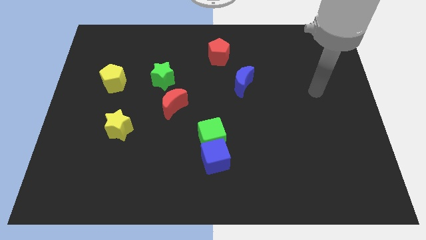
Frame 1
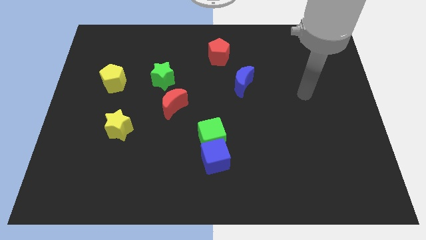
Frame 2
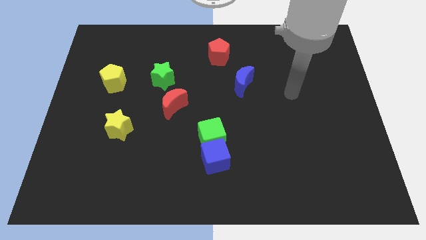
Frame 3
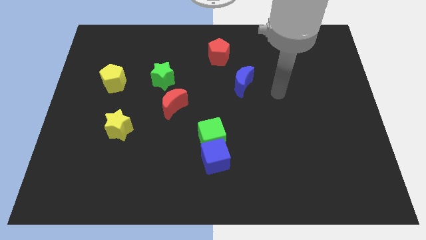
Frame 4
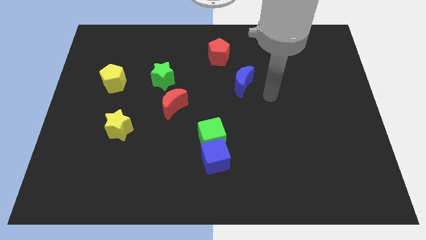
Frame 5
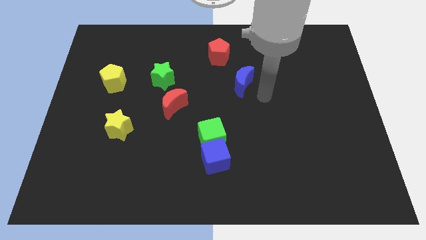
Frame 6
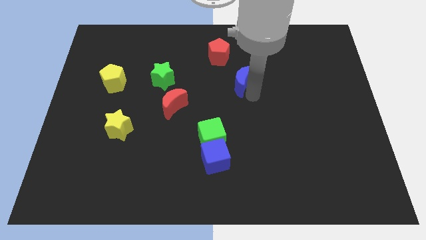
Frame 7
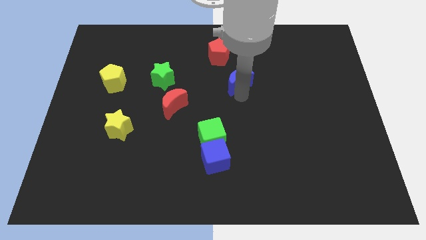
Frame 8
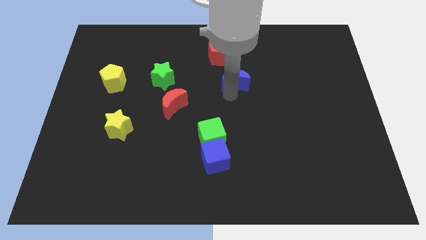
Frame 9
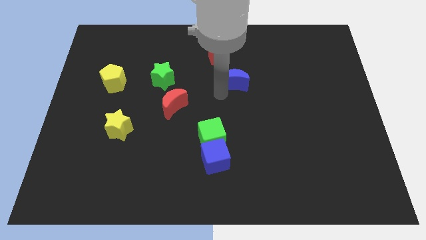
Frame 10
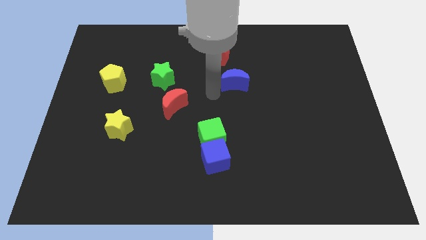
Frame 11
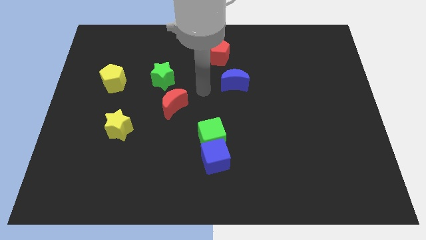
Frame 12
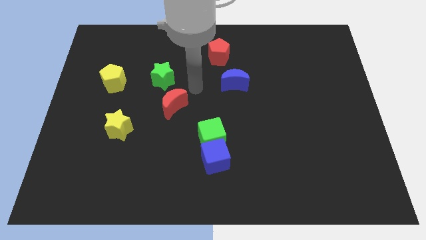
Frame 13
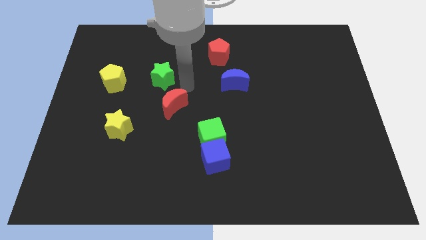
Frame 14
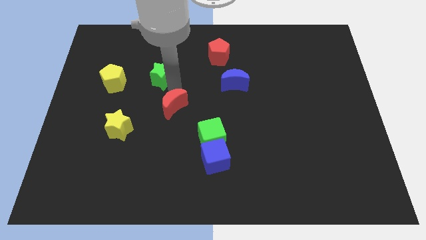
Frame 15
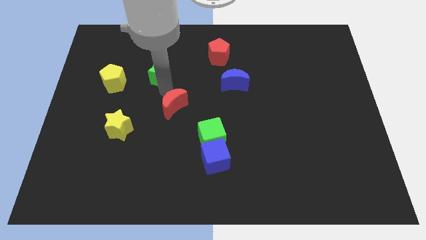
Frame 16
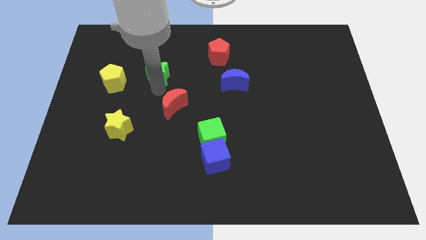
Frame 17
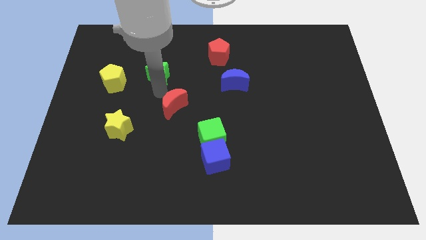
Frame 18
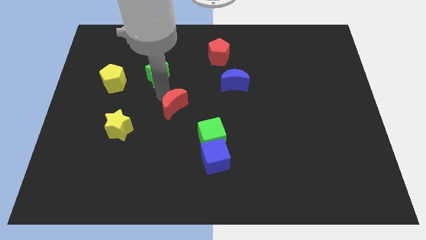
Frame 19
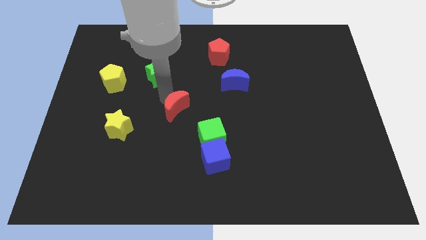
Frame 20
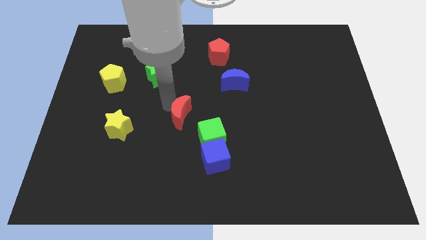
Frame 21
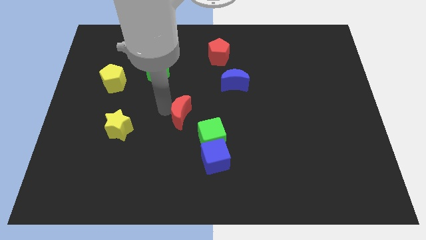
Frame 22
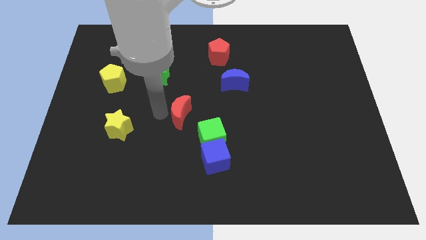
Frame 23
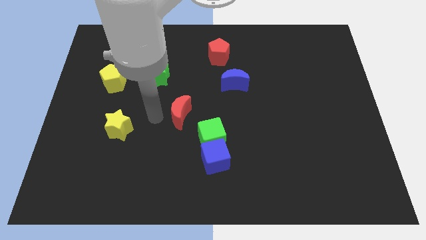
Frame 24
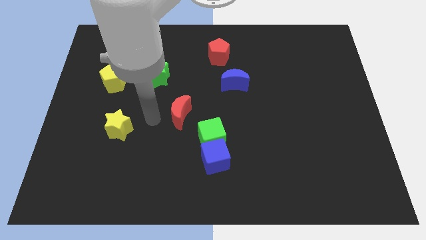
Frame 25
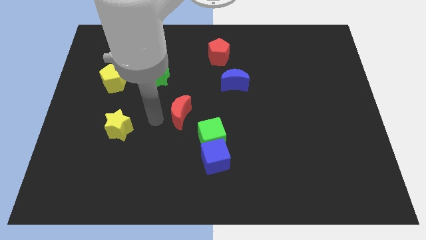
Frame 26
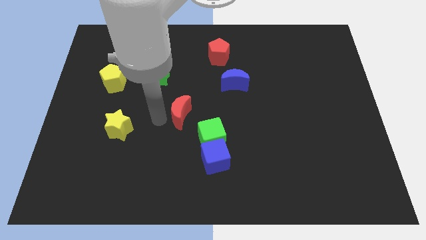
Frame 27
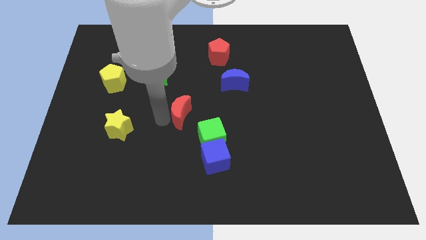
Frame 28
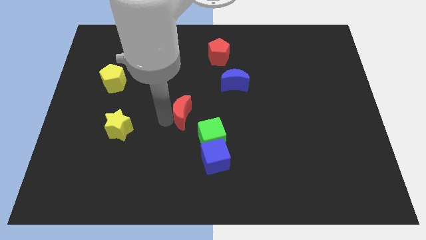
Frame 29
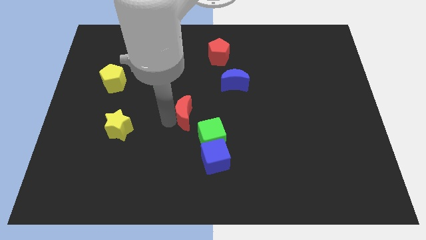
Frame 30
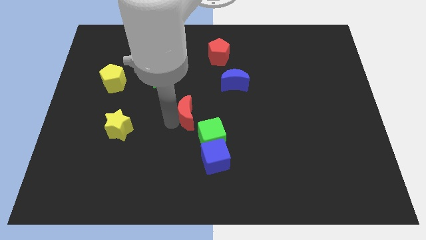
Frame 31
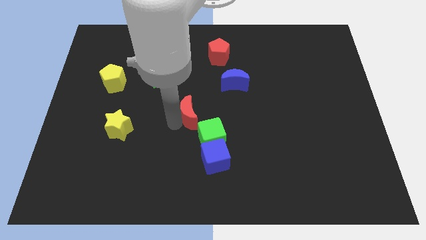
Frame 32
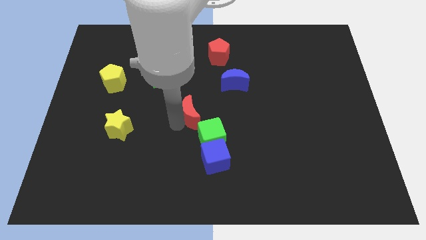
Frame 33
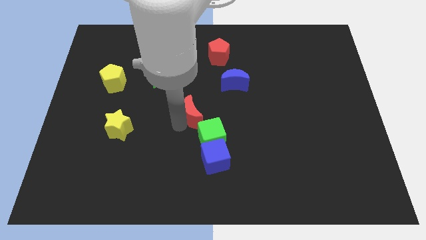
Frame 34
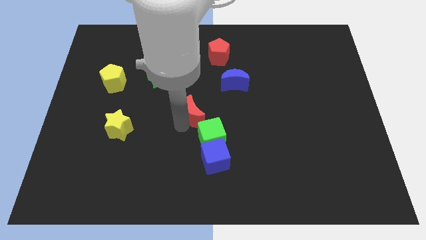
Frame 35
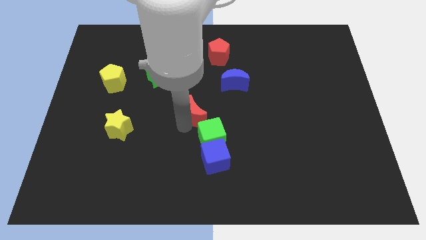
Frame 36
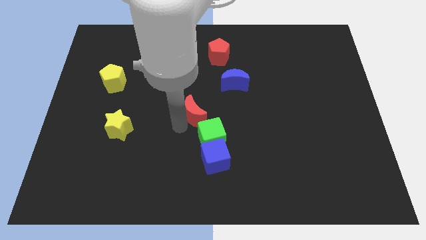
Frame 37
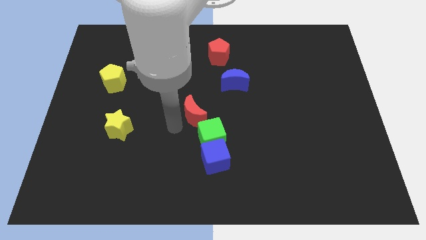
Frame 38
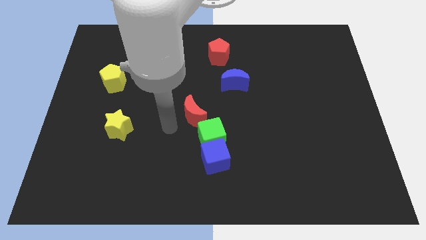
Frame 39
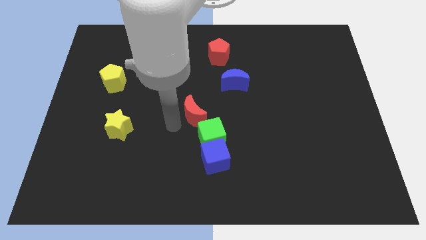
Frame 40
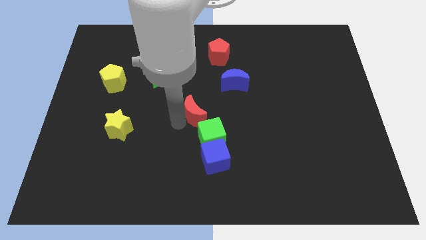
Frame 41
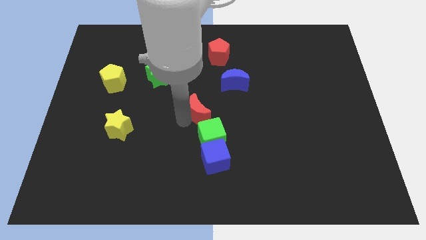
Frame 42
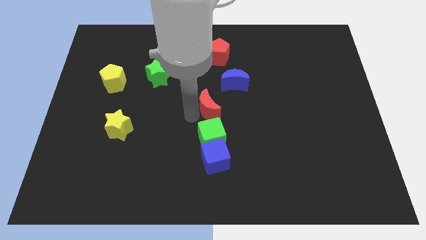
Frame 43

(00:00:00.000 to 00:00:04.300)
slide the red moon a little to the right

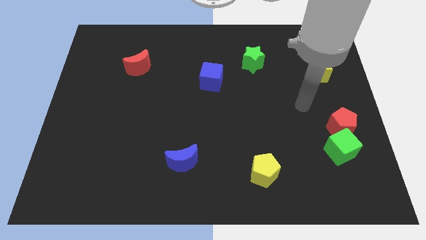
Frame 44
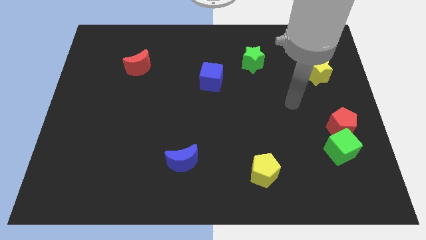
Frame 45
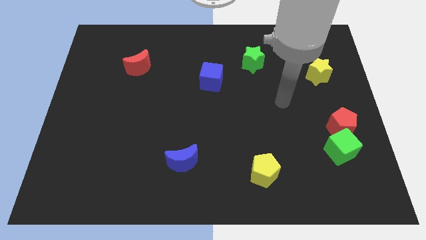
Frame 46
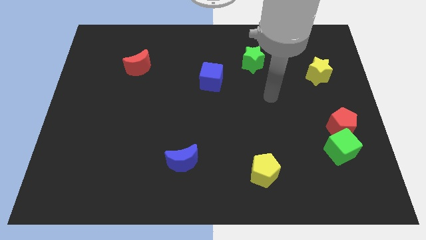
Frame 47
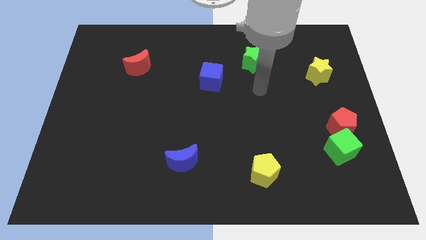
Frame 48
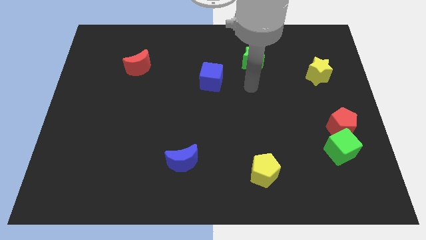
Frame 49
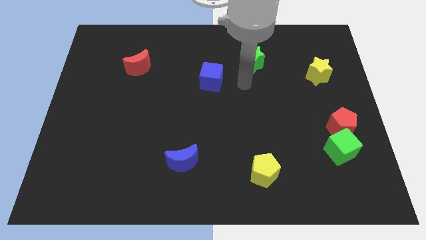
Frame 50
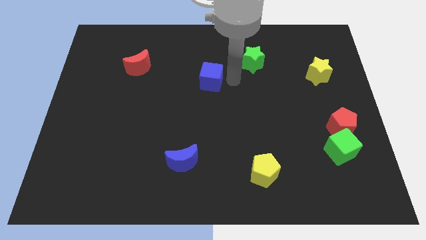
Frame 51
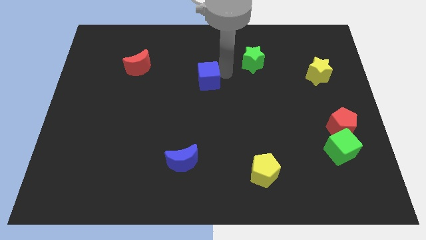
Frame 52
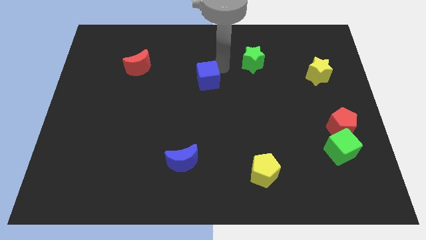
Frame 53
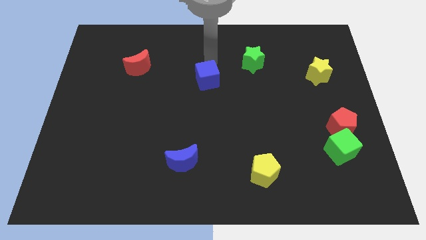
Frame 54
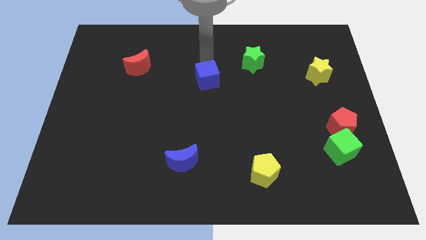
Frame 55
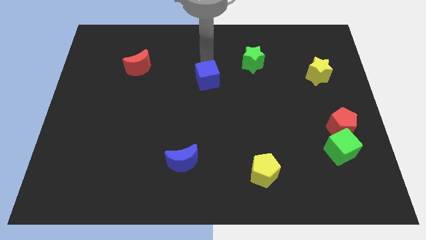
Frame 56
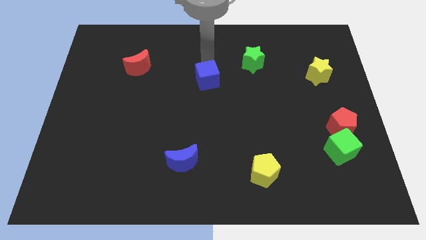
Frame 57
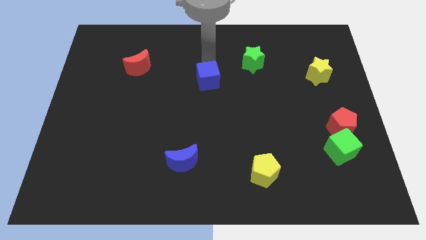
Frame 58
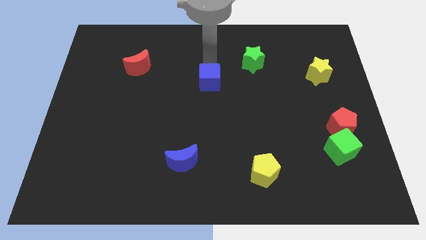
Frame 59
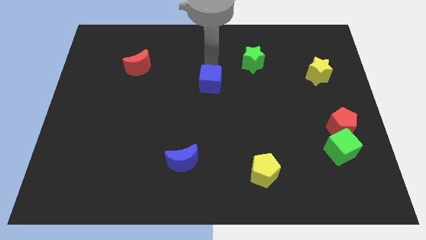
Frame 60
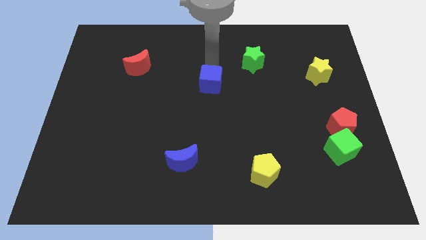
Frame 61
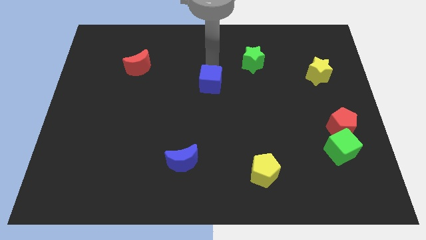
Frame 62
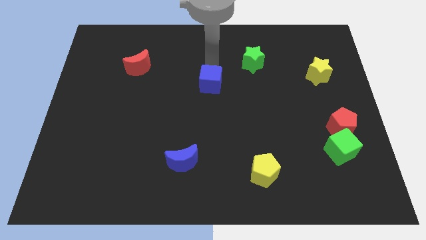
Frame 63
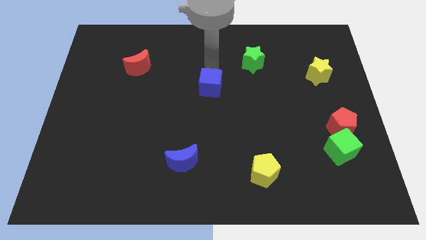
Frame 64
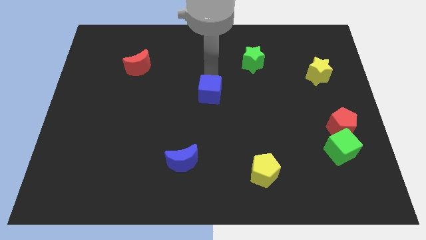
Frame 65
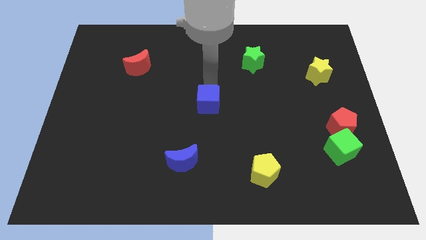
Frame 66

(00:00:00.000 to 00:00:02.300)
push the blue cube somewhat downwards

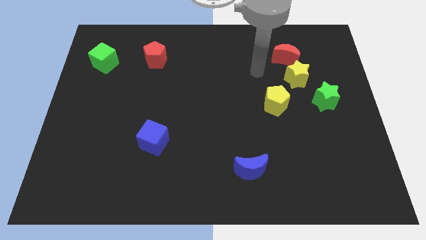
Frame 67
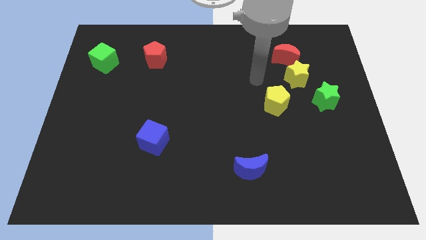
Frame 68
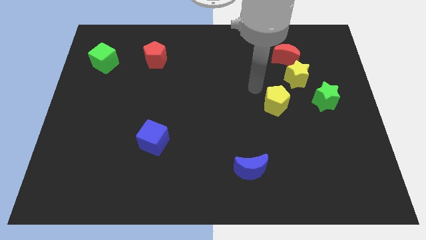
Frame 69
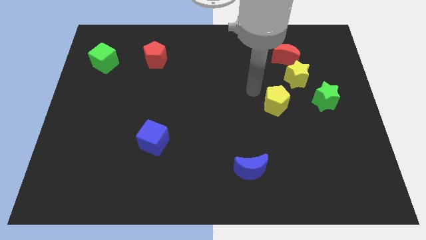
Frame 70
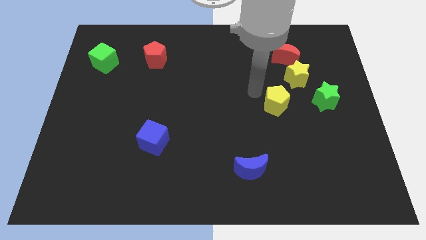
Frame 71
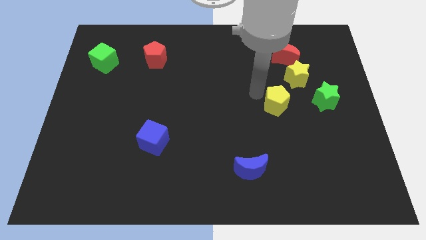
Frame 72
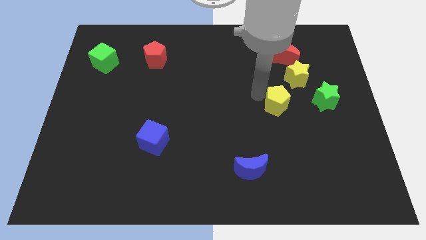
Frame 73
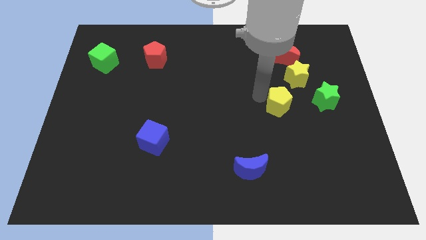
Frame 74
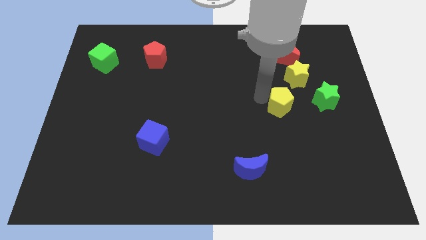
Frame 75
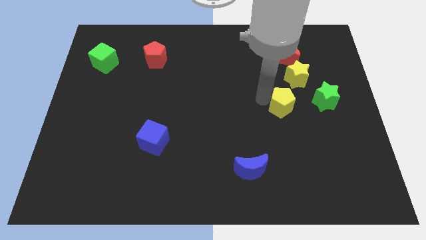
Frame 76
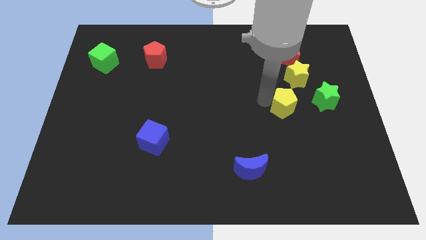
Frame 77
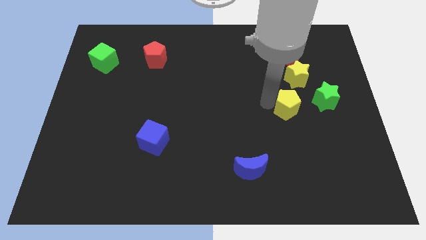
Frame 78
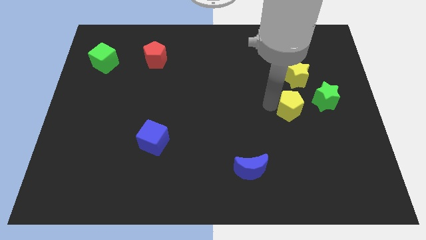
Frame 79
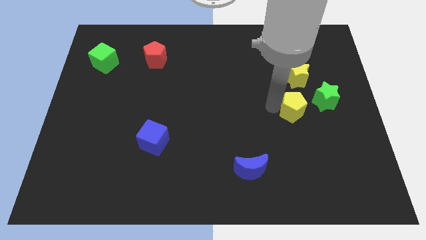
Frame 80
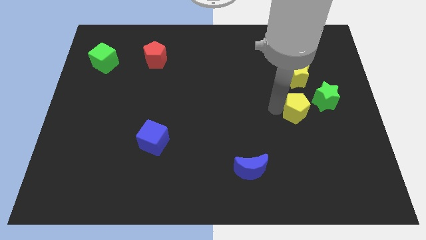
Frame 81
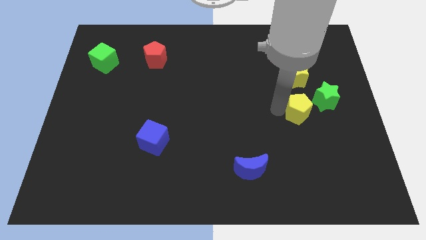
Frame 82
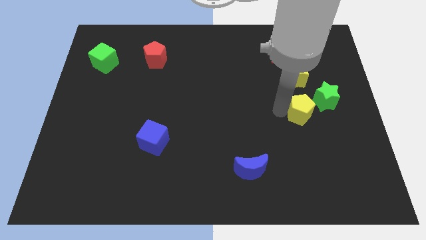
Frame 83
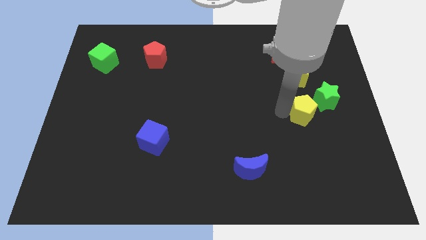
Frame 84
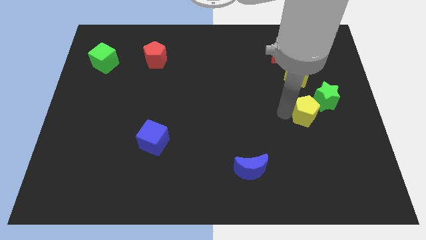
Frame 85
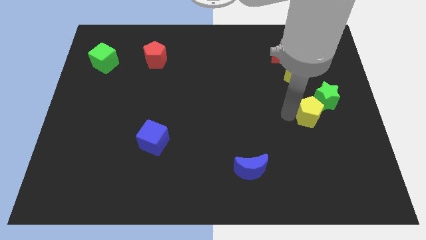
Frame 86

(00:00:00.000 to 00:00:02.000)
move the yellow pentagon somewhat diagonally down and to the right
